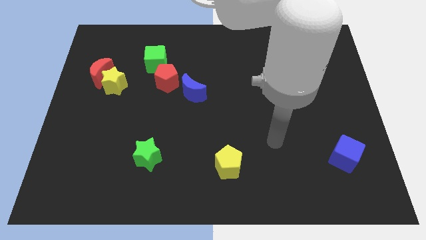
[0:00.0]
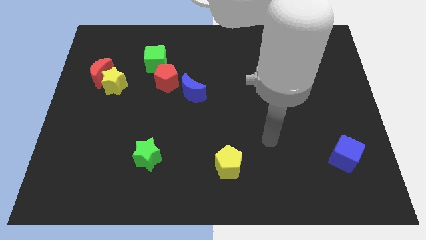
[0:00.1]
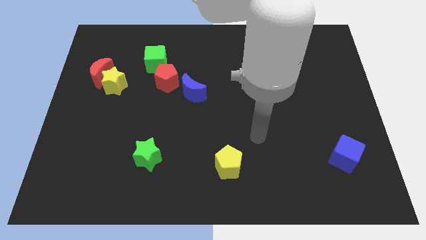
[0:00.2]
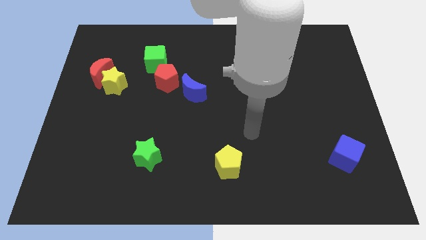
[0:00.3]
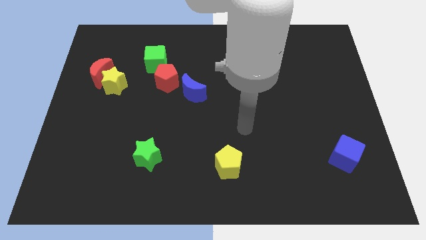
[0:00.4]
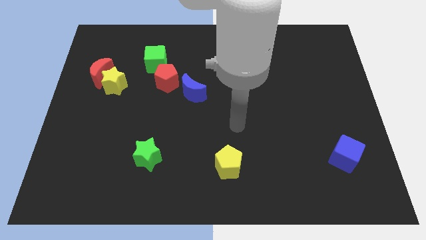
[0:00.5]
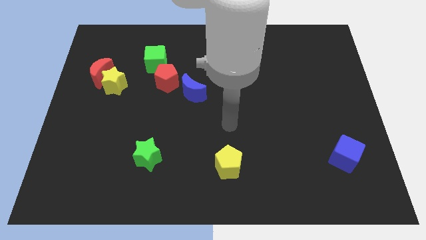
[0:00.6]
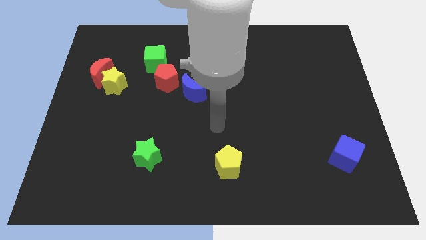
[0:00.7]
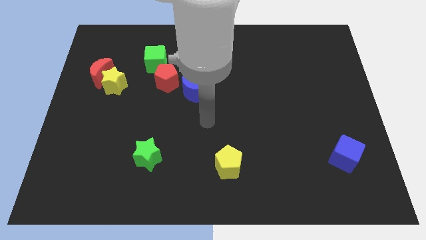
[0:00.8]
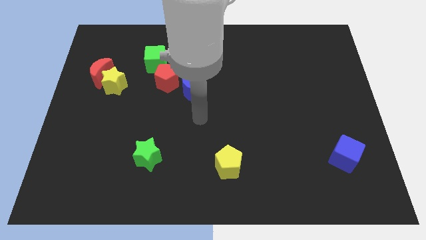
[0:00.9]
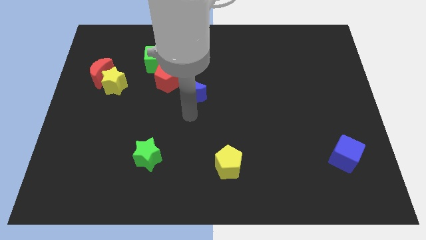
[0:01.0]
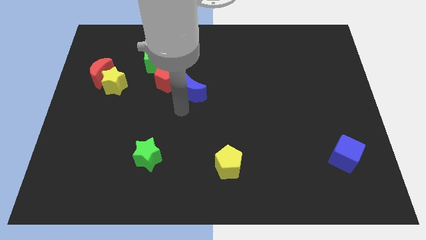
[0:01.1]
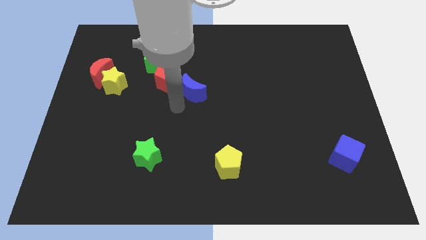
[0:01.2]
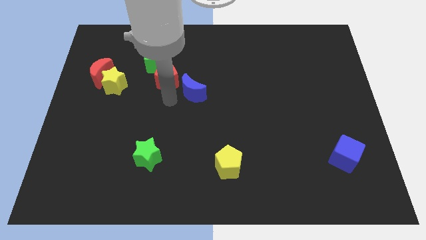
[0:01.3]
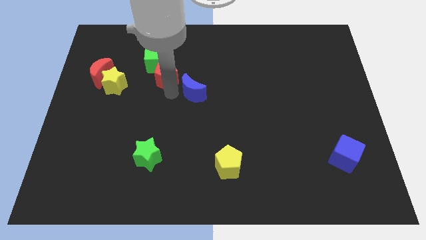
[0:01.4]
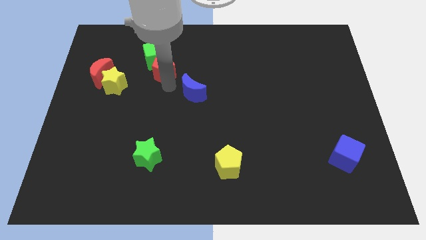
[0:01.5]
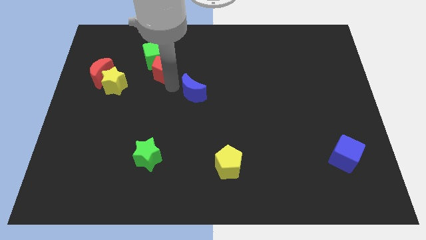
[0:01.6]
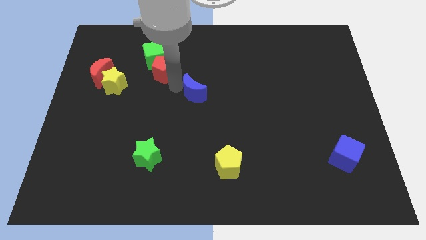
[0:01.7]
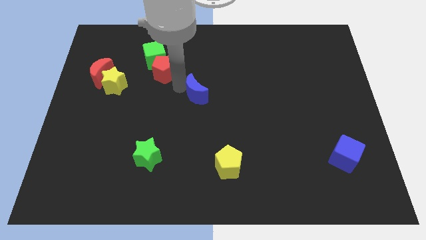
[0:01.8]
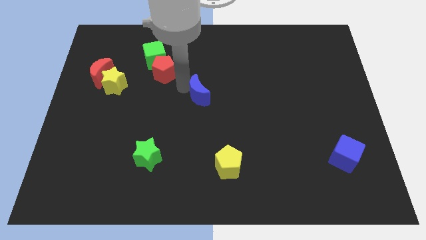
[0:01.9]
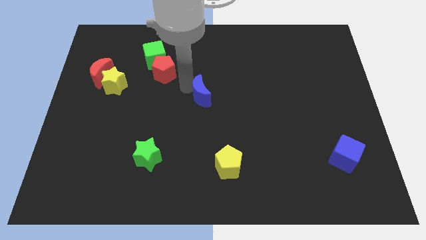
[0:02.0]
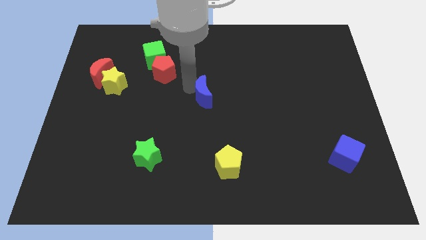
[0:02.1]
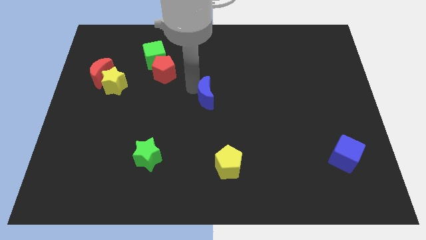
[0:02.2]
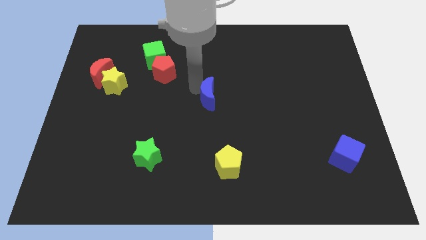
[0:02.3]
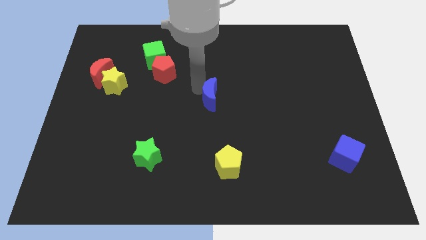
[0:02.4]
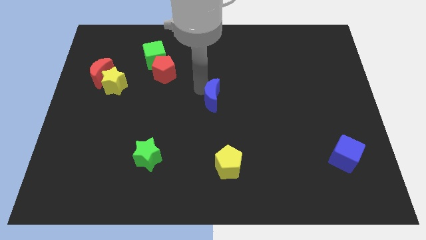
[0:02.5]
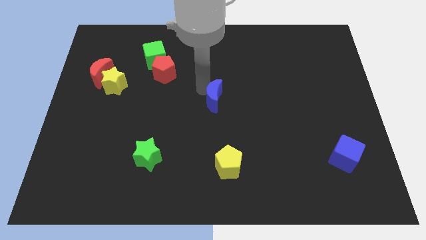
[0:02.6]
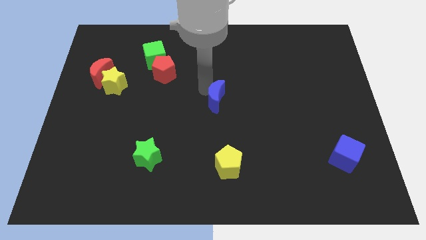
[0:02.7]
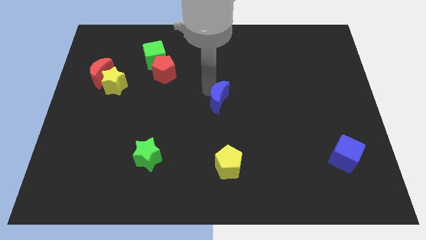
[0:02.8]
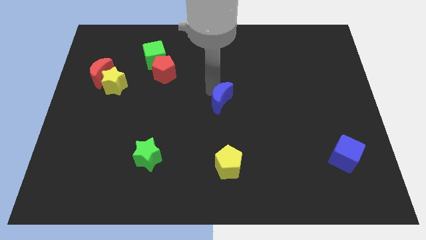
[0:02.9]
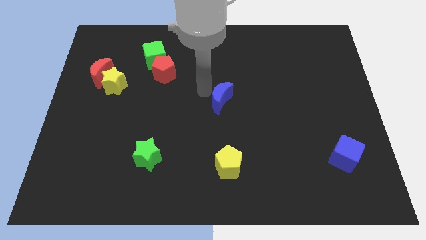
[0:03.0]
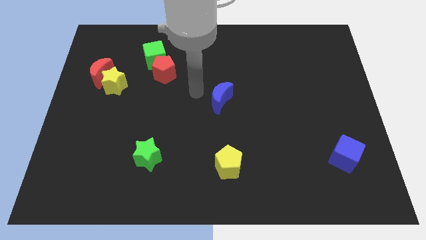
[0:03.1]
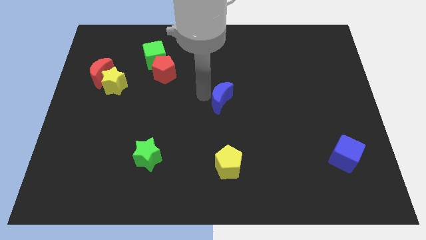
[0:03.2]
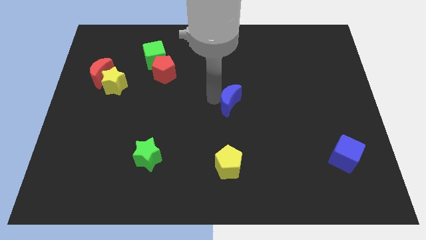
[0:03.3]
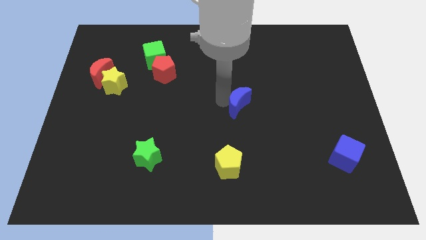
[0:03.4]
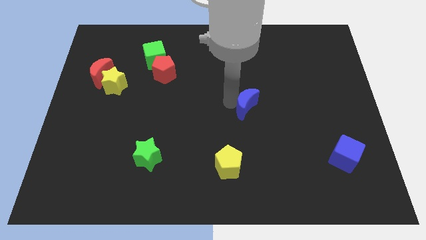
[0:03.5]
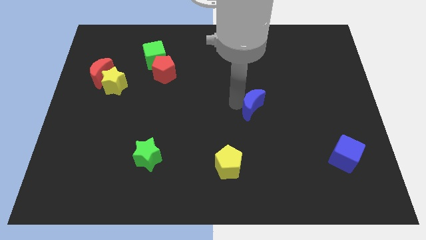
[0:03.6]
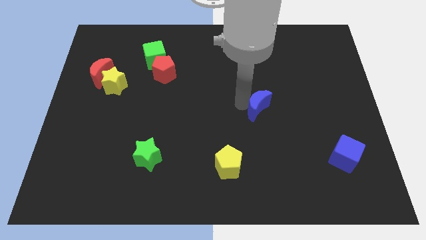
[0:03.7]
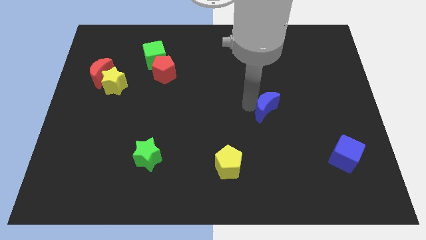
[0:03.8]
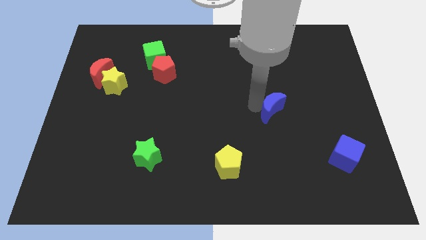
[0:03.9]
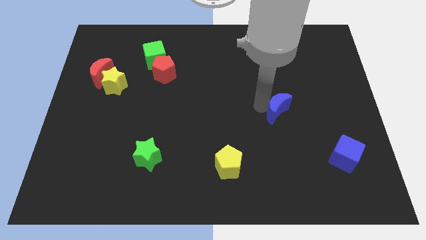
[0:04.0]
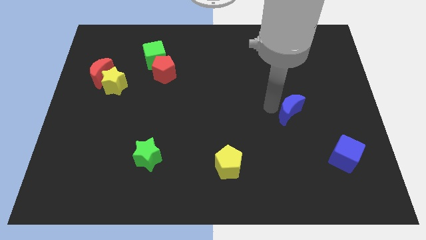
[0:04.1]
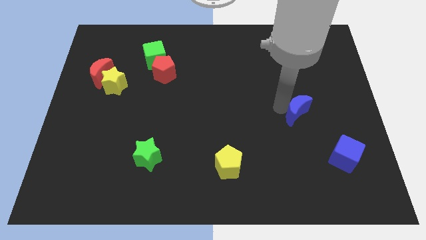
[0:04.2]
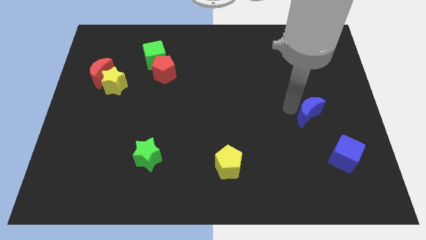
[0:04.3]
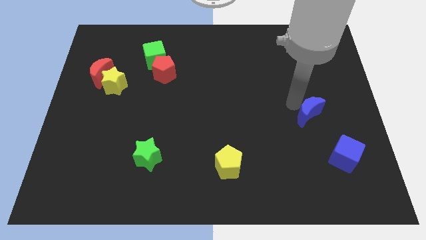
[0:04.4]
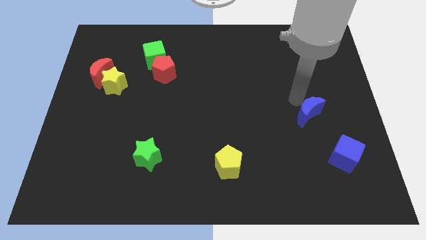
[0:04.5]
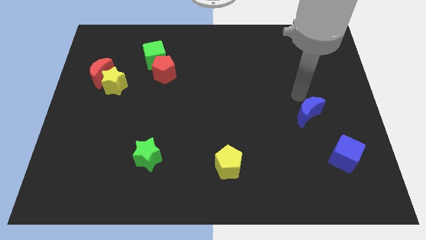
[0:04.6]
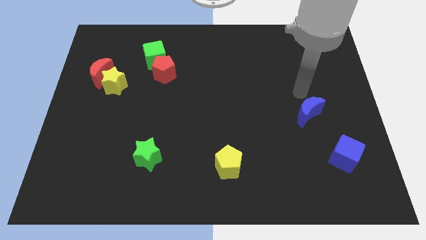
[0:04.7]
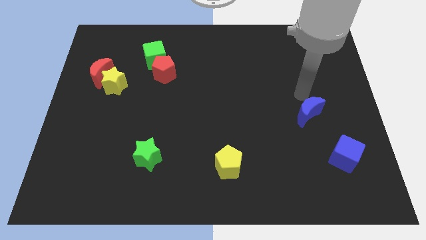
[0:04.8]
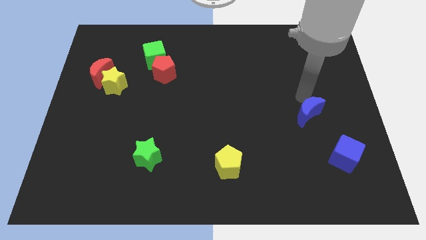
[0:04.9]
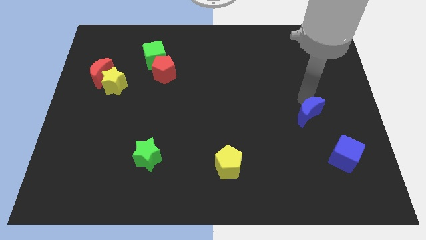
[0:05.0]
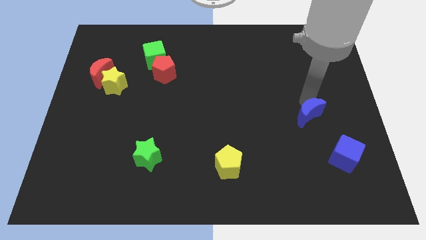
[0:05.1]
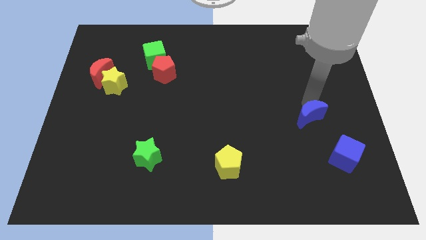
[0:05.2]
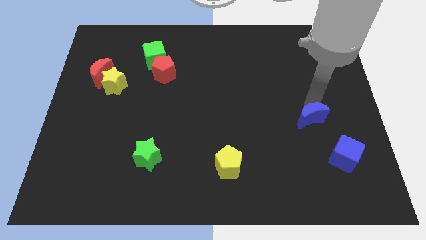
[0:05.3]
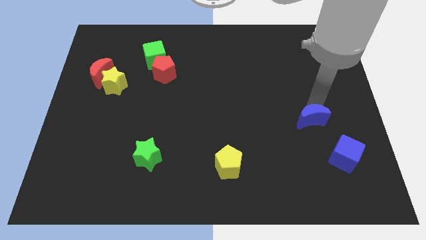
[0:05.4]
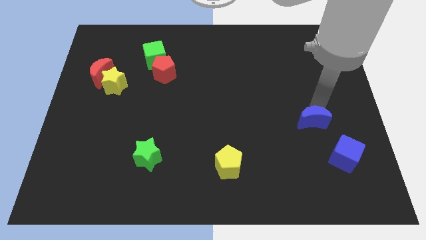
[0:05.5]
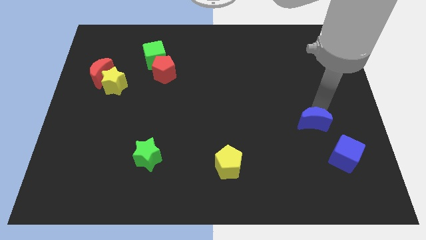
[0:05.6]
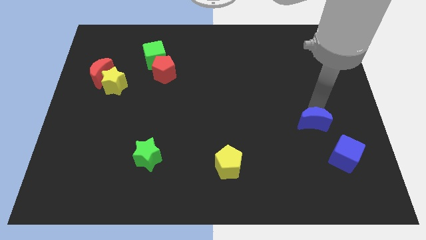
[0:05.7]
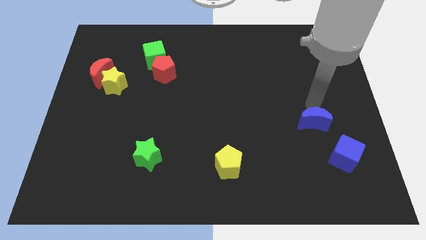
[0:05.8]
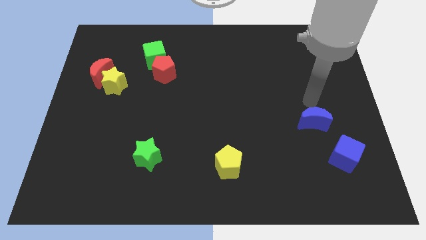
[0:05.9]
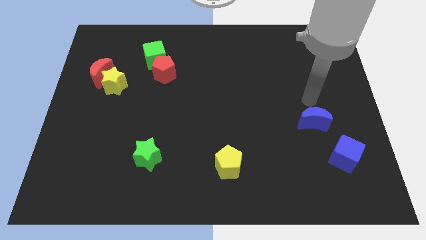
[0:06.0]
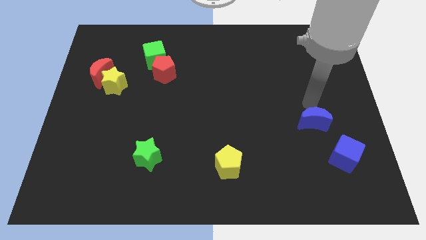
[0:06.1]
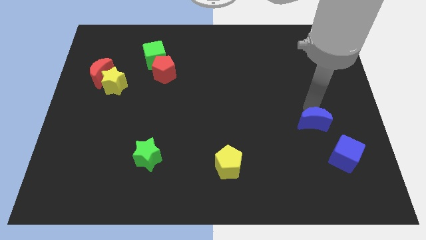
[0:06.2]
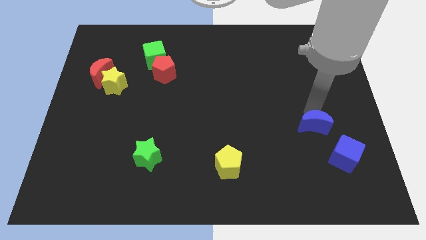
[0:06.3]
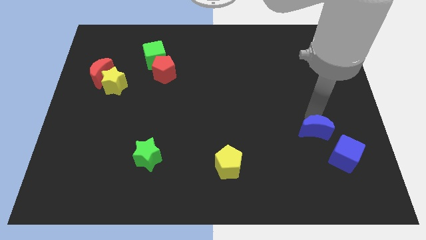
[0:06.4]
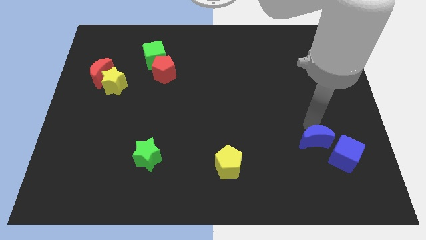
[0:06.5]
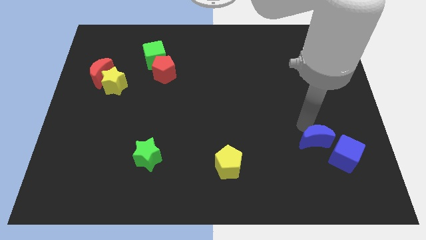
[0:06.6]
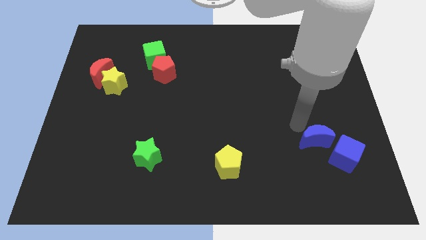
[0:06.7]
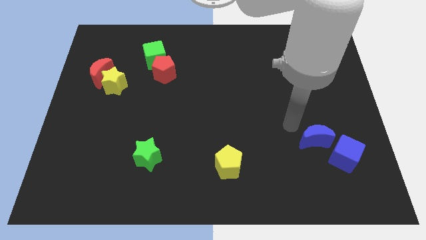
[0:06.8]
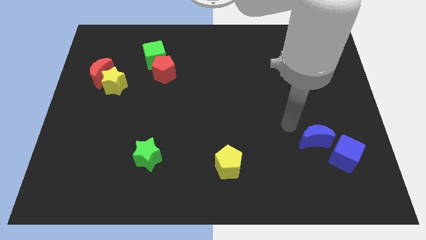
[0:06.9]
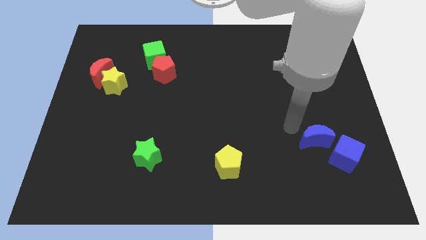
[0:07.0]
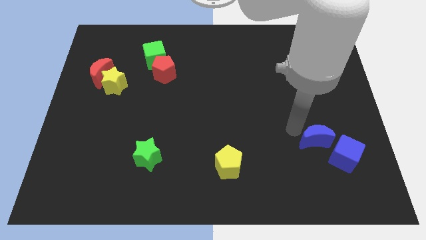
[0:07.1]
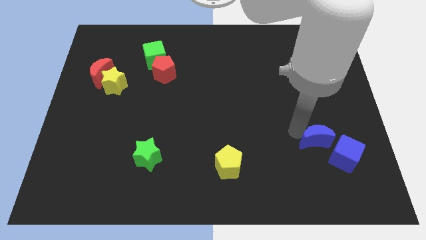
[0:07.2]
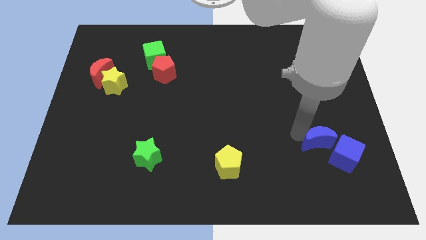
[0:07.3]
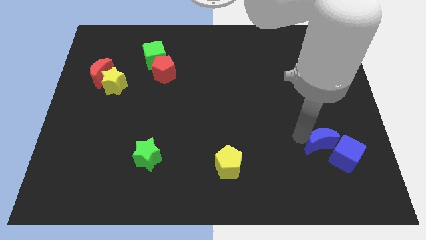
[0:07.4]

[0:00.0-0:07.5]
slide the blue moon towards the blue cube
